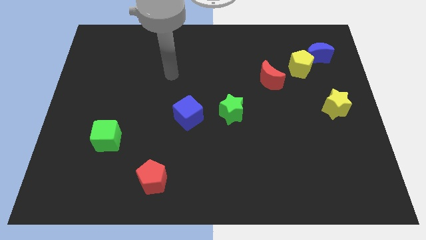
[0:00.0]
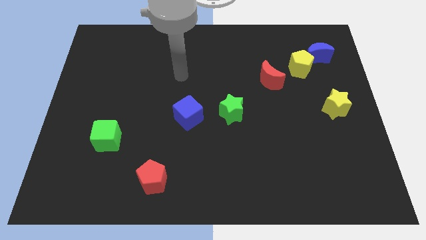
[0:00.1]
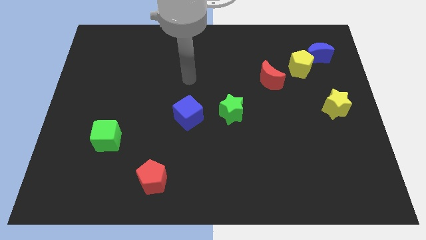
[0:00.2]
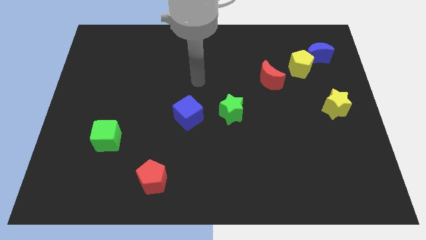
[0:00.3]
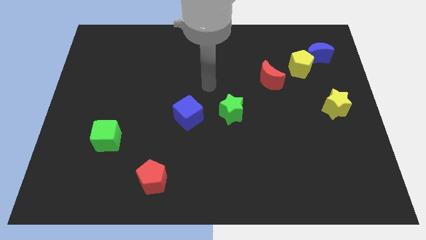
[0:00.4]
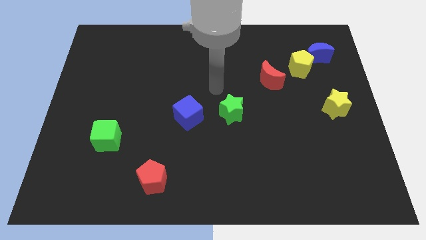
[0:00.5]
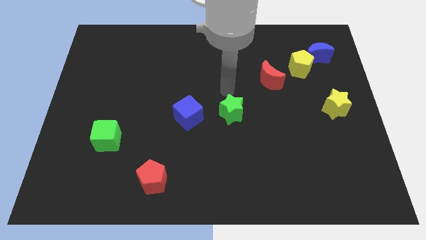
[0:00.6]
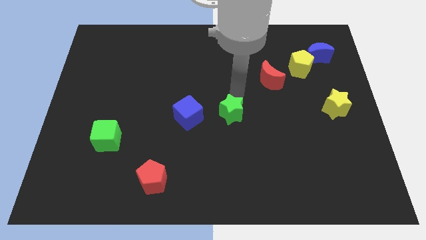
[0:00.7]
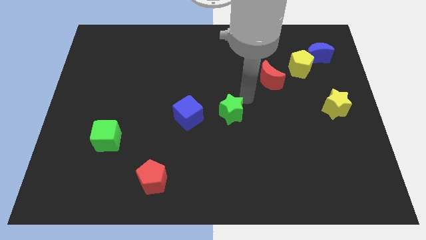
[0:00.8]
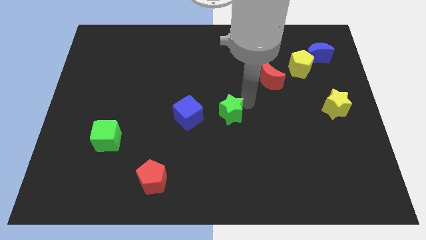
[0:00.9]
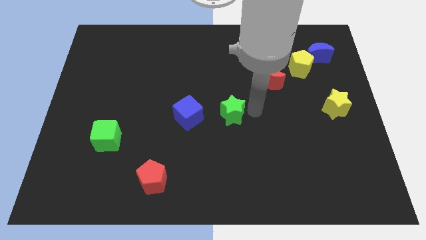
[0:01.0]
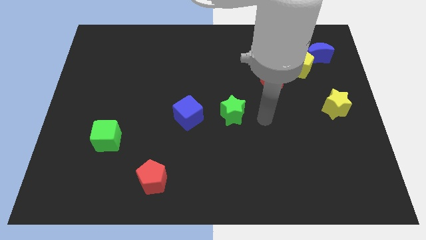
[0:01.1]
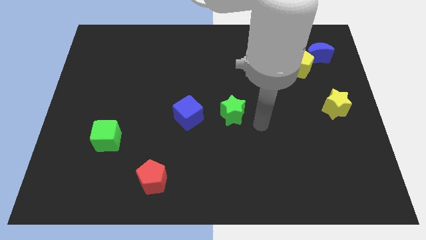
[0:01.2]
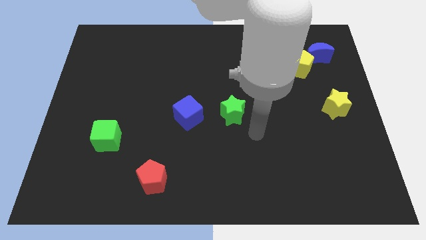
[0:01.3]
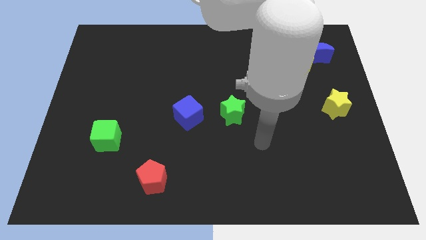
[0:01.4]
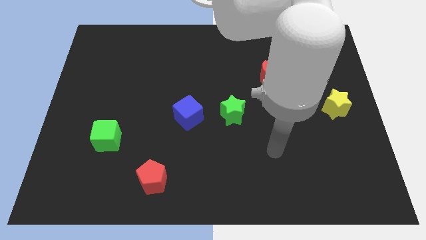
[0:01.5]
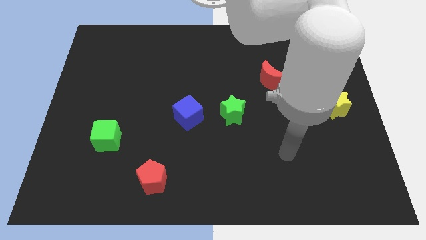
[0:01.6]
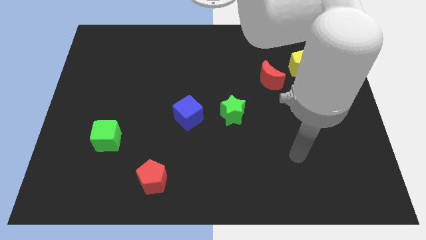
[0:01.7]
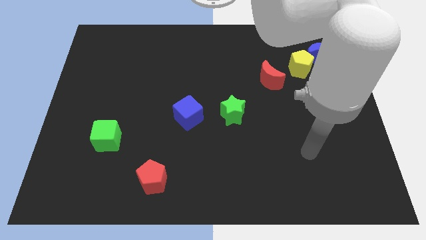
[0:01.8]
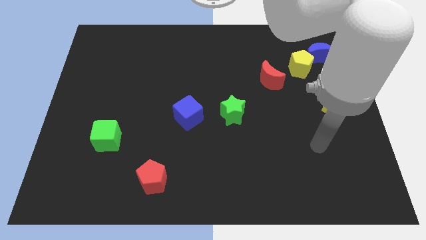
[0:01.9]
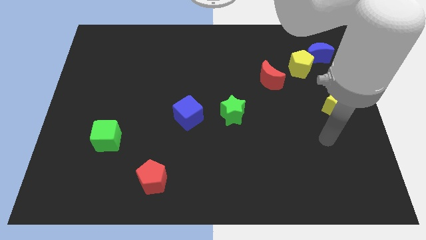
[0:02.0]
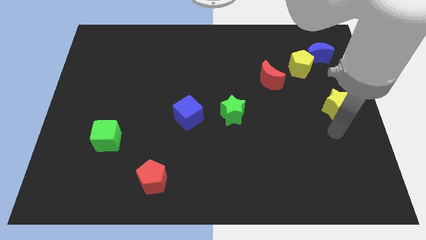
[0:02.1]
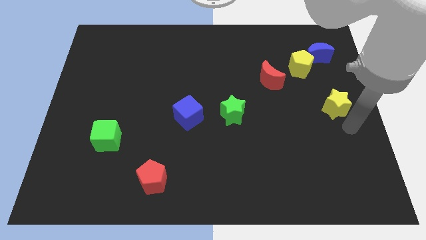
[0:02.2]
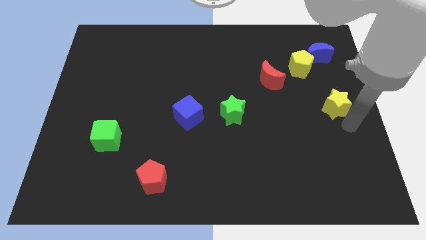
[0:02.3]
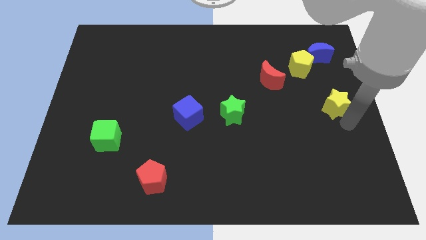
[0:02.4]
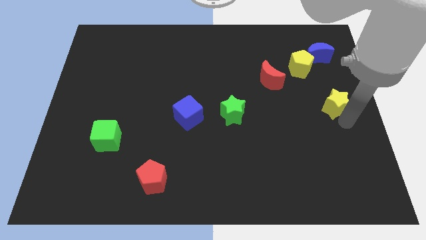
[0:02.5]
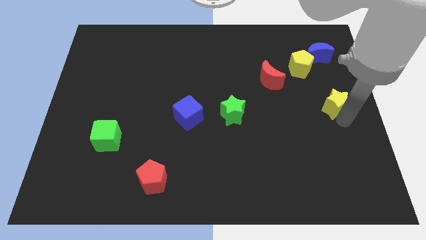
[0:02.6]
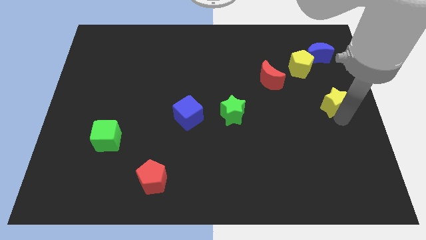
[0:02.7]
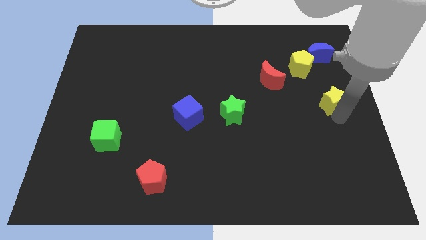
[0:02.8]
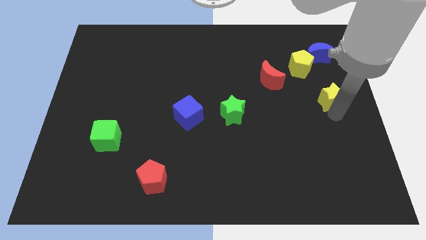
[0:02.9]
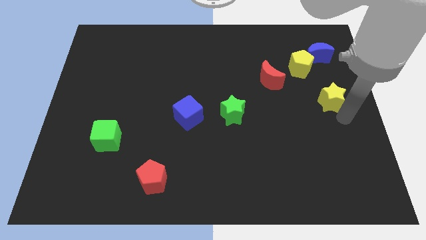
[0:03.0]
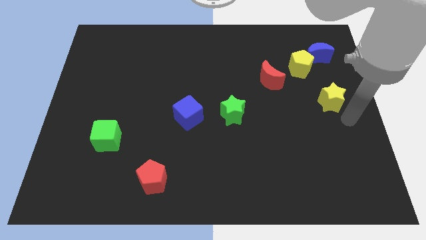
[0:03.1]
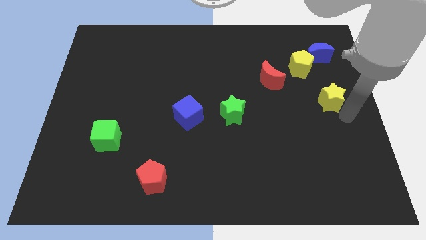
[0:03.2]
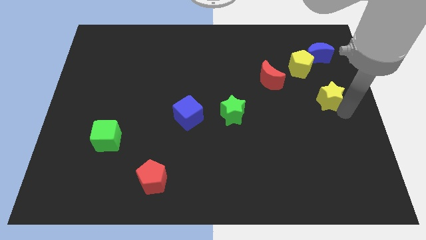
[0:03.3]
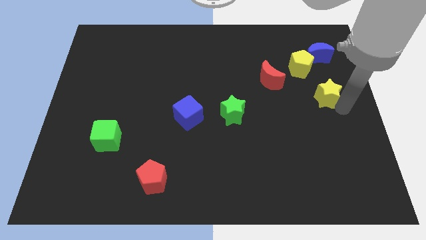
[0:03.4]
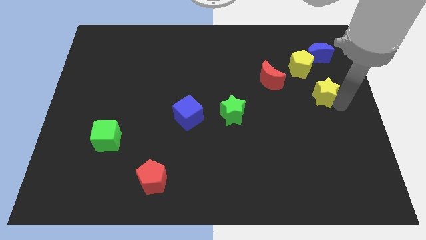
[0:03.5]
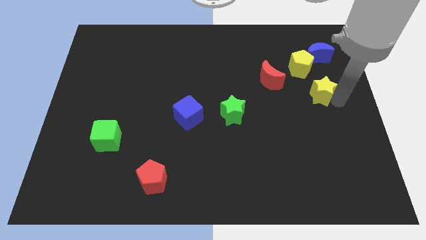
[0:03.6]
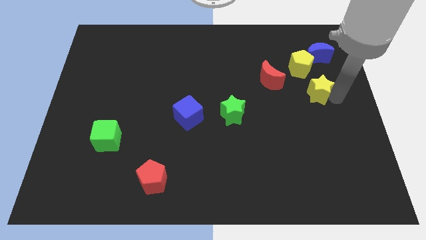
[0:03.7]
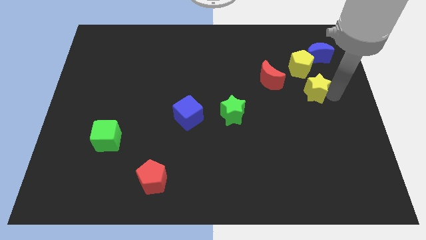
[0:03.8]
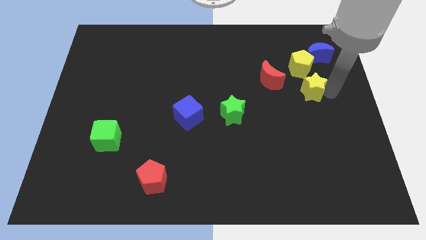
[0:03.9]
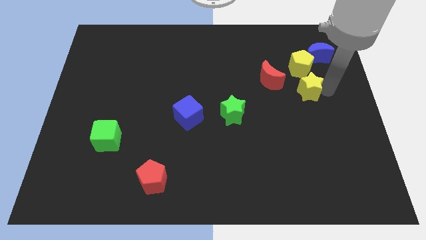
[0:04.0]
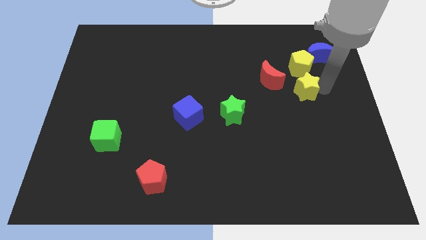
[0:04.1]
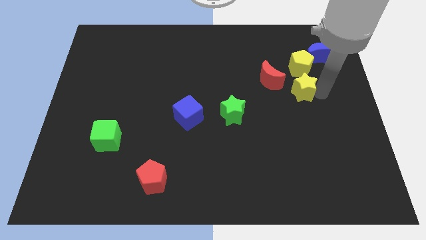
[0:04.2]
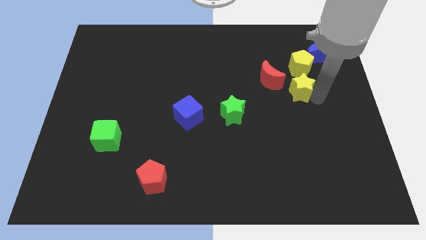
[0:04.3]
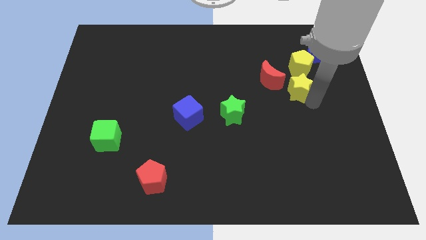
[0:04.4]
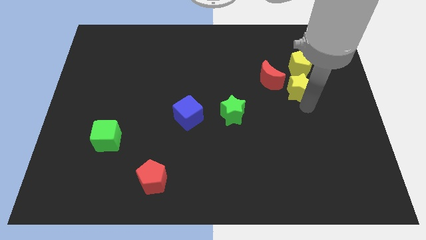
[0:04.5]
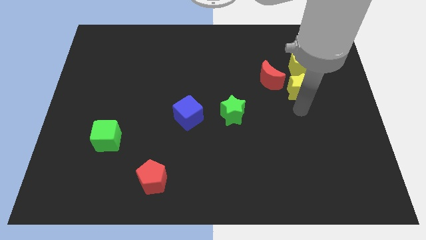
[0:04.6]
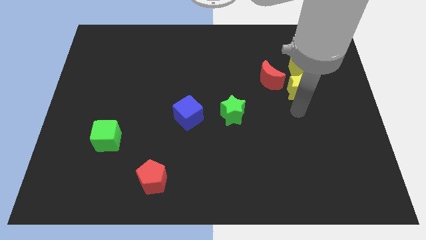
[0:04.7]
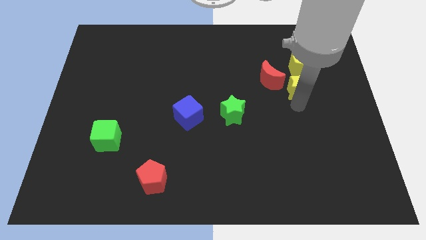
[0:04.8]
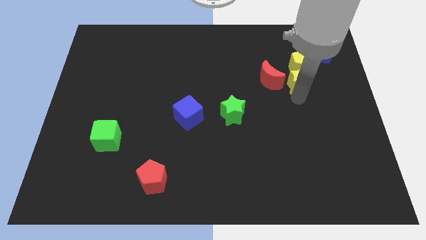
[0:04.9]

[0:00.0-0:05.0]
put the yellow star towards the yellow pentagon

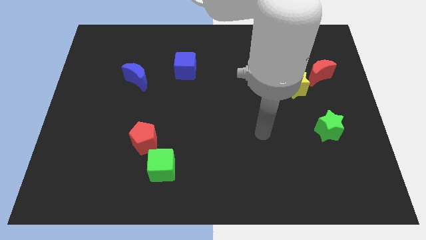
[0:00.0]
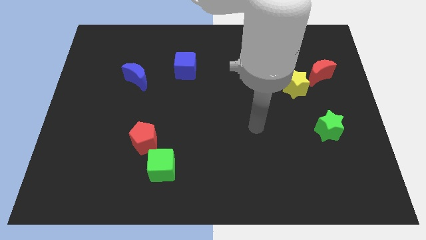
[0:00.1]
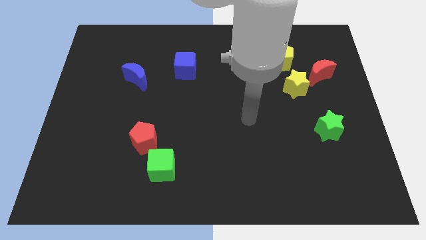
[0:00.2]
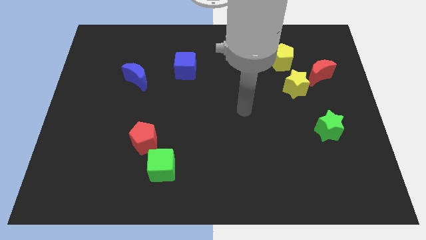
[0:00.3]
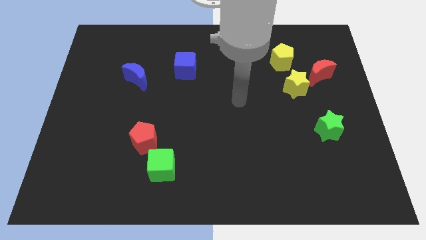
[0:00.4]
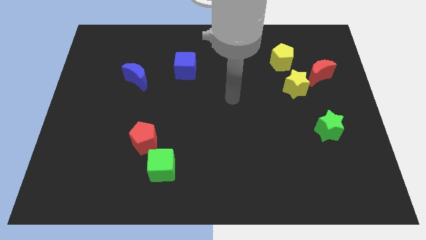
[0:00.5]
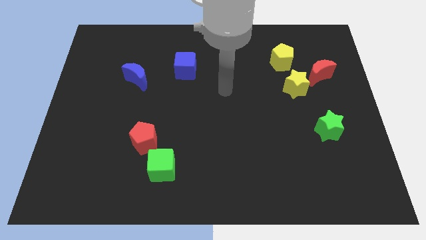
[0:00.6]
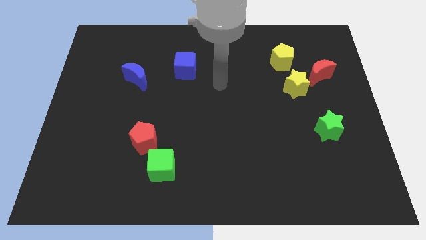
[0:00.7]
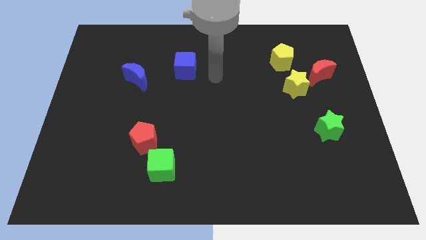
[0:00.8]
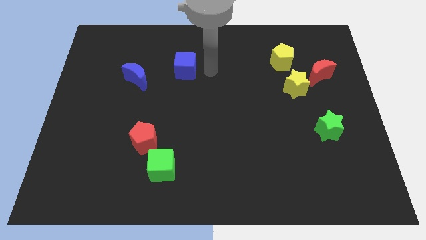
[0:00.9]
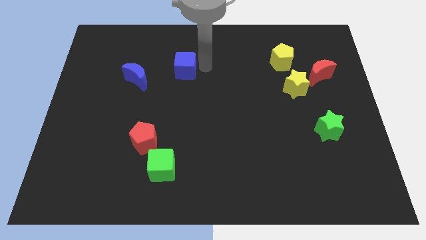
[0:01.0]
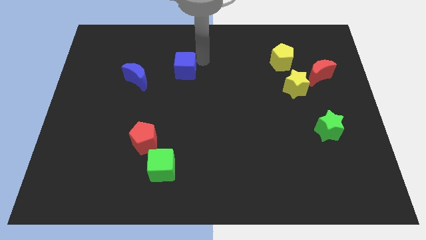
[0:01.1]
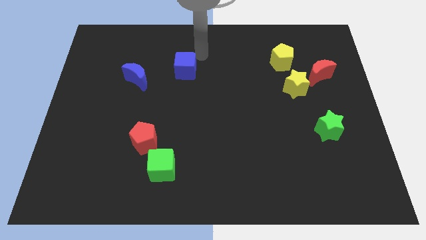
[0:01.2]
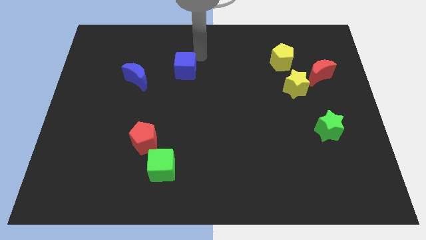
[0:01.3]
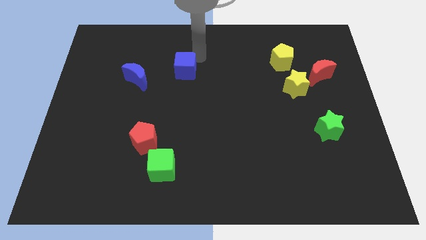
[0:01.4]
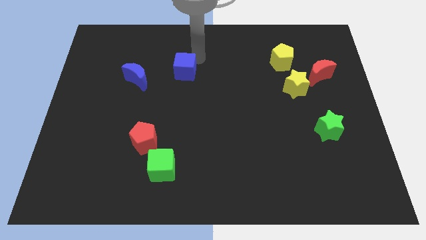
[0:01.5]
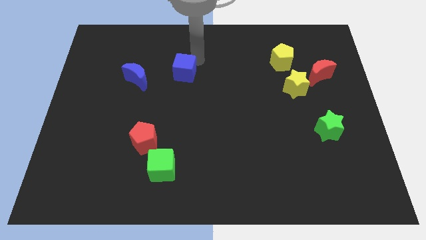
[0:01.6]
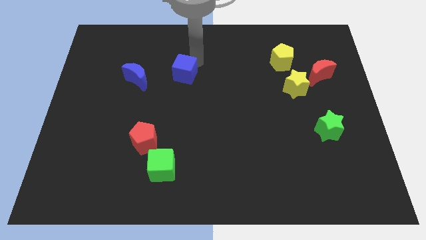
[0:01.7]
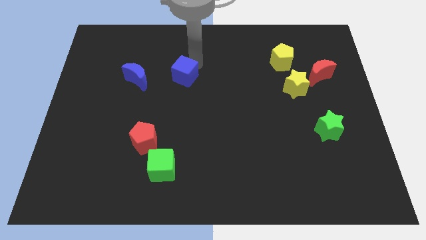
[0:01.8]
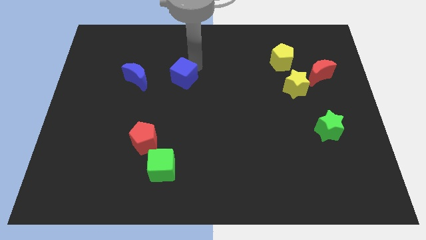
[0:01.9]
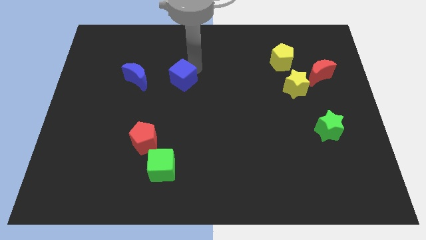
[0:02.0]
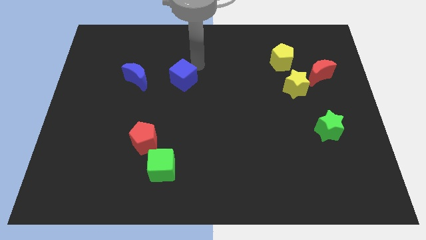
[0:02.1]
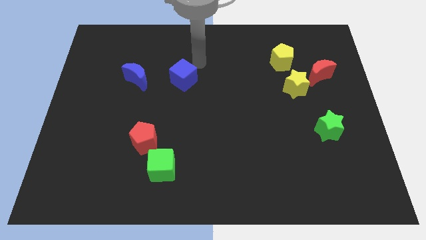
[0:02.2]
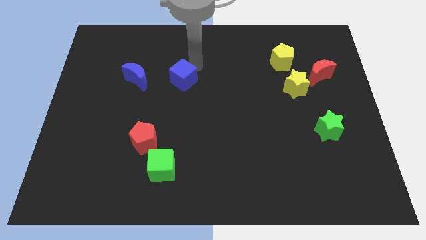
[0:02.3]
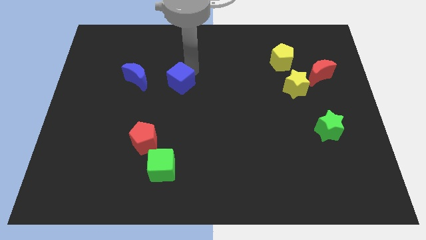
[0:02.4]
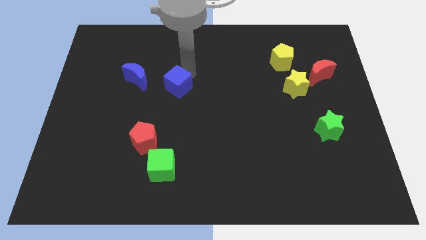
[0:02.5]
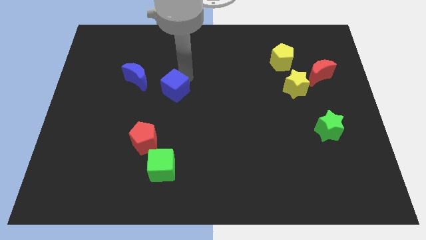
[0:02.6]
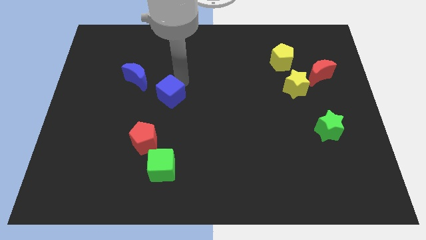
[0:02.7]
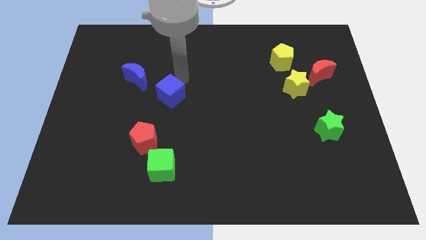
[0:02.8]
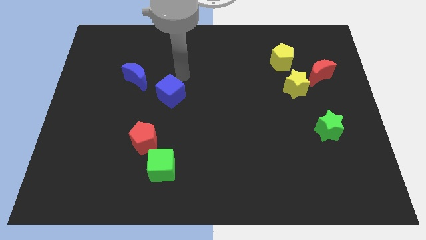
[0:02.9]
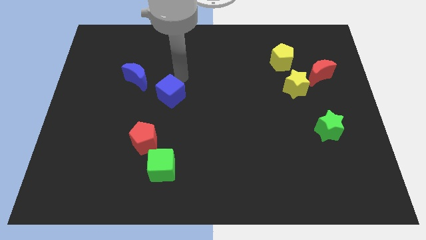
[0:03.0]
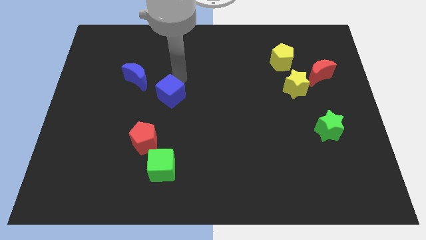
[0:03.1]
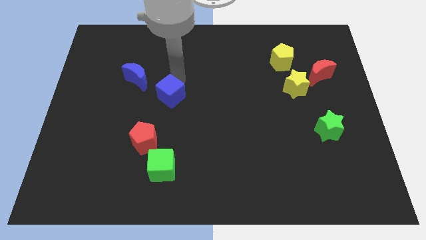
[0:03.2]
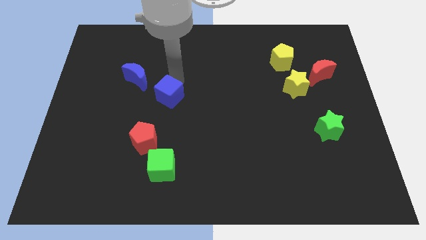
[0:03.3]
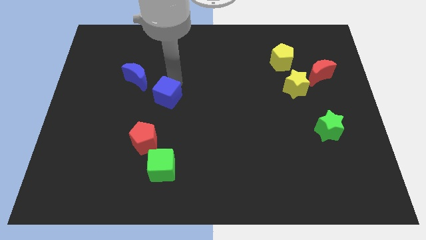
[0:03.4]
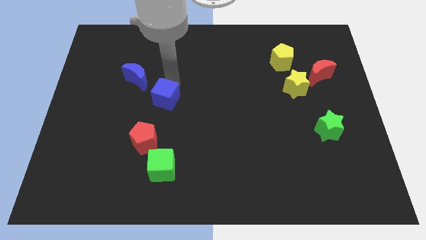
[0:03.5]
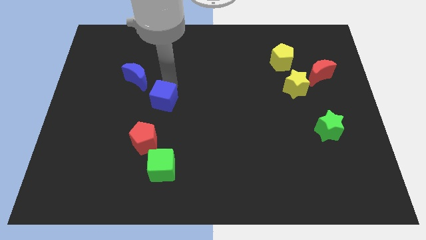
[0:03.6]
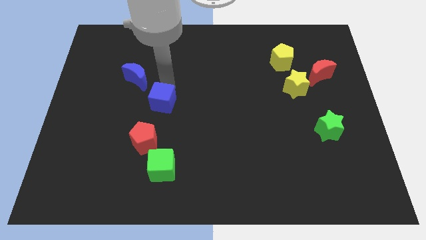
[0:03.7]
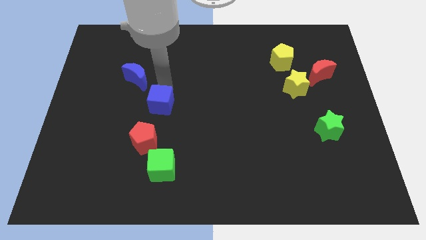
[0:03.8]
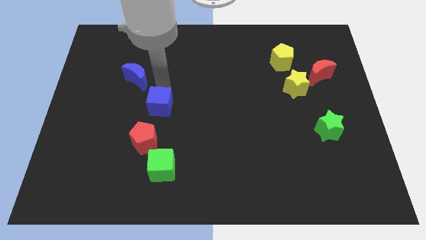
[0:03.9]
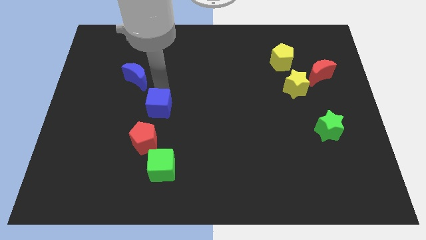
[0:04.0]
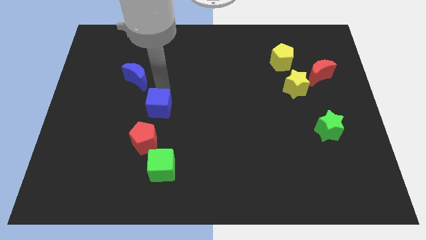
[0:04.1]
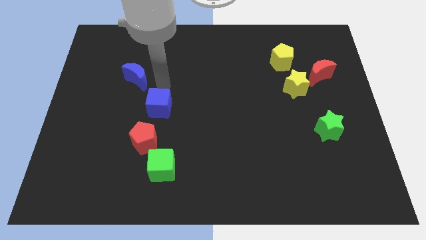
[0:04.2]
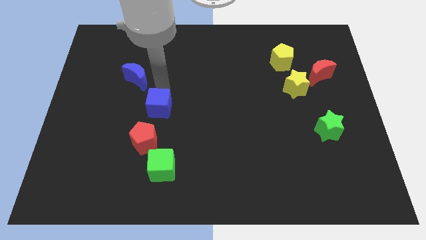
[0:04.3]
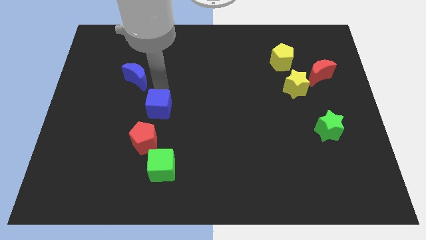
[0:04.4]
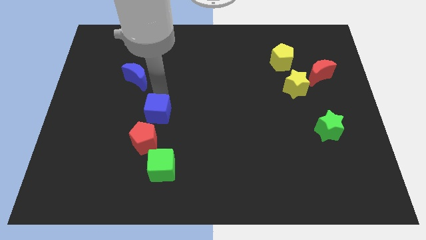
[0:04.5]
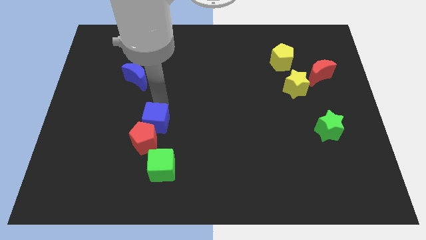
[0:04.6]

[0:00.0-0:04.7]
push the blue cube close to the red pentagon
